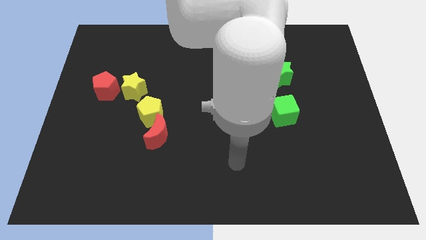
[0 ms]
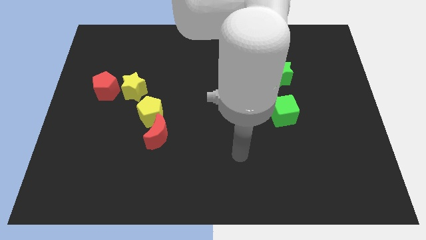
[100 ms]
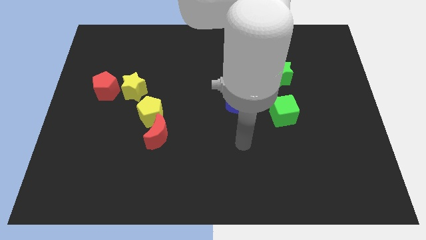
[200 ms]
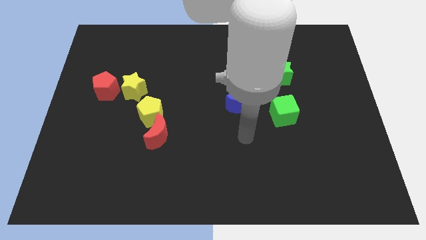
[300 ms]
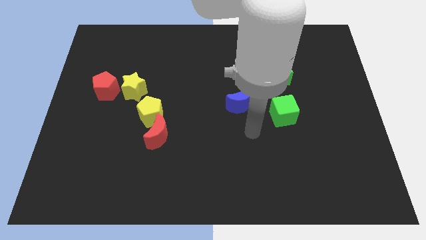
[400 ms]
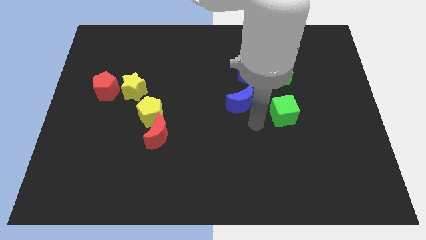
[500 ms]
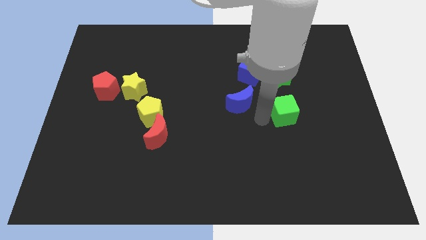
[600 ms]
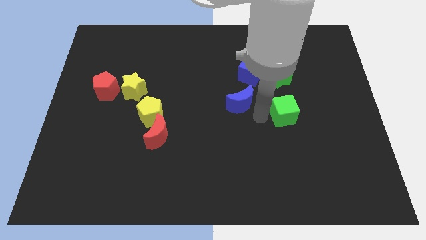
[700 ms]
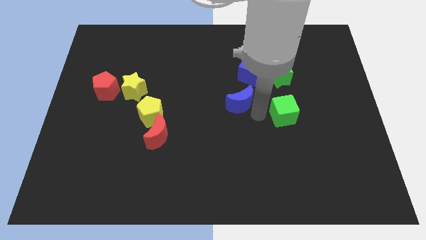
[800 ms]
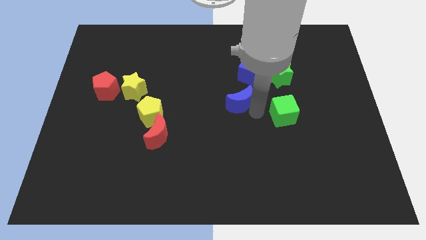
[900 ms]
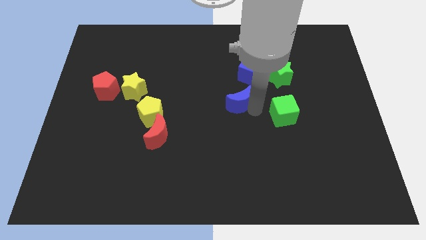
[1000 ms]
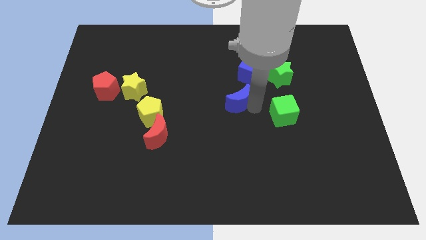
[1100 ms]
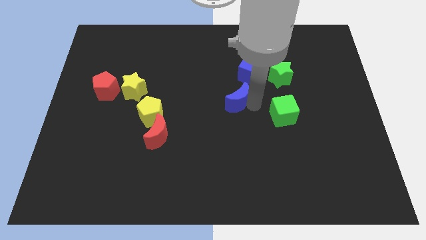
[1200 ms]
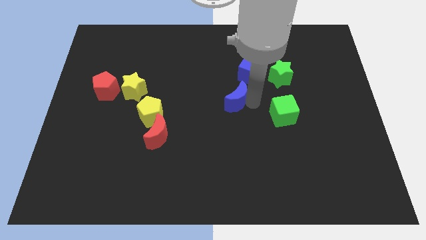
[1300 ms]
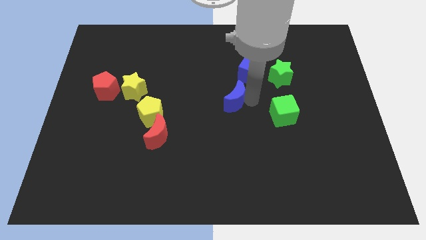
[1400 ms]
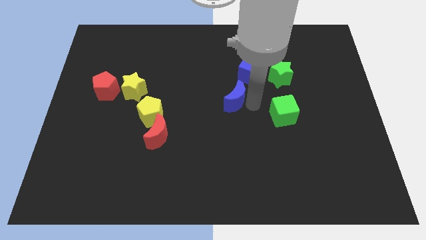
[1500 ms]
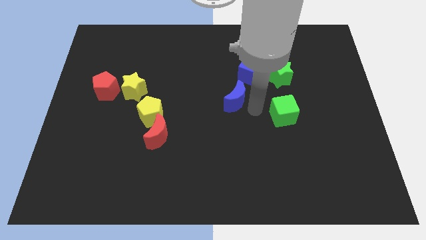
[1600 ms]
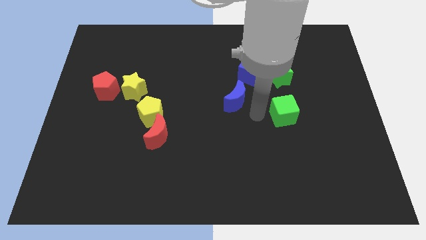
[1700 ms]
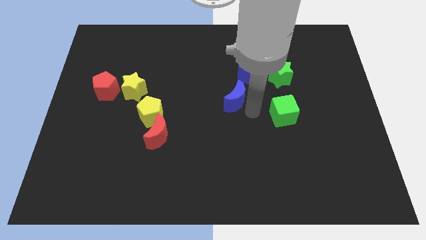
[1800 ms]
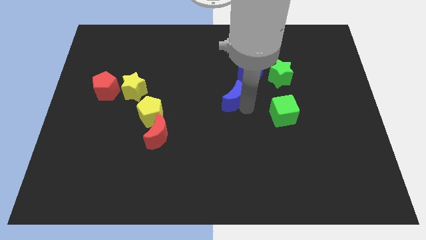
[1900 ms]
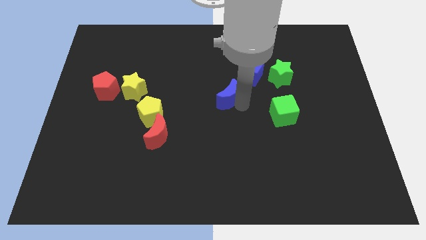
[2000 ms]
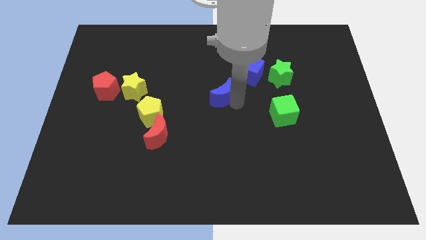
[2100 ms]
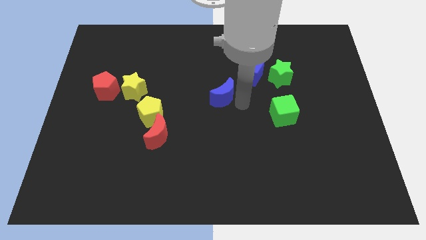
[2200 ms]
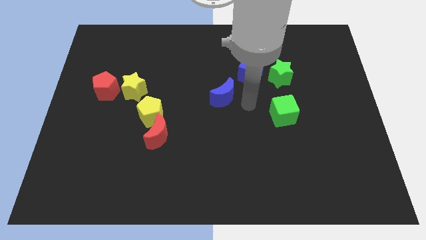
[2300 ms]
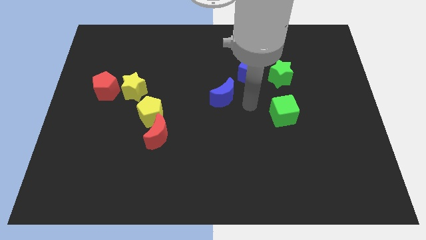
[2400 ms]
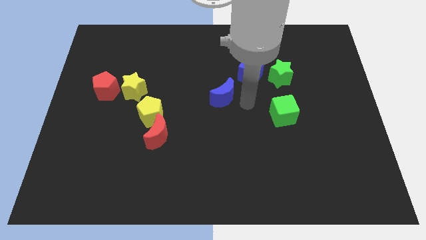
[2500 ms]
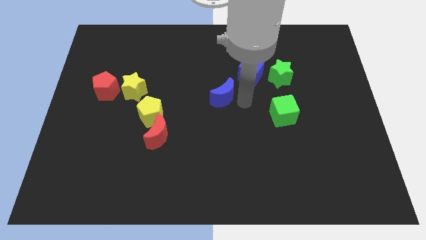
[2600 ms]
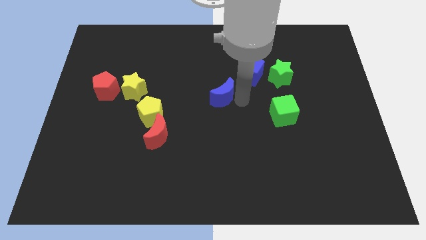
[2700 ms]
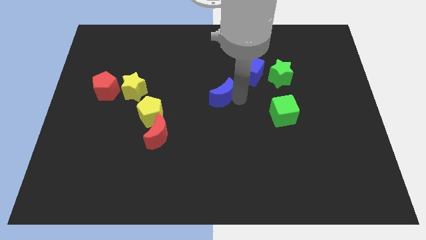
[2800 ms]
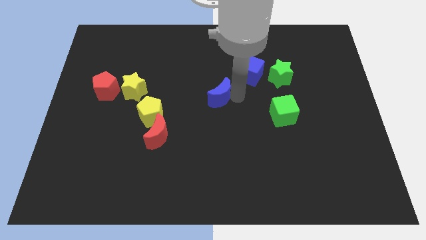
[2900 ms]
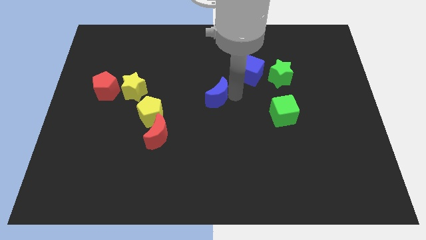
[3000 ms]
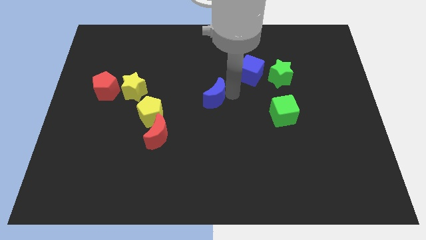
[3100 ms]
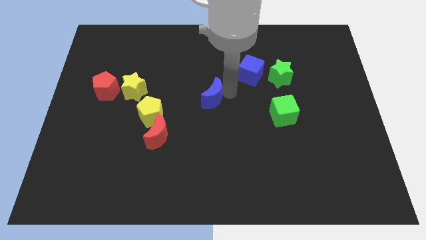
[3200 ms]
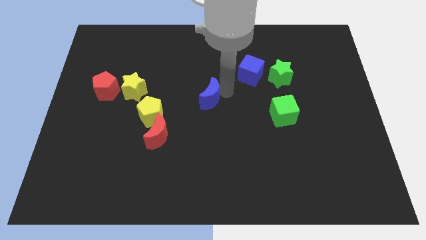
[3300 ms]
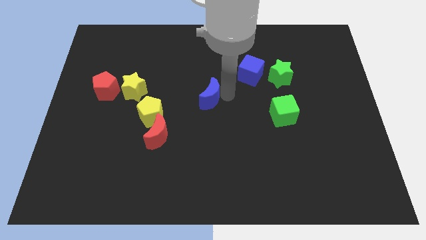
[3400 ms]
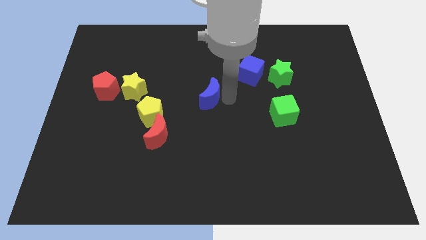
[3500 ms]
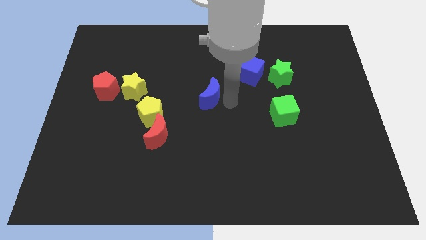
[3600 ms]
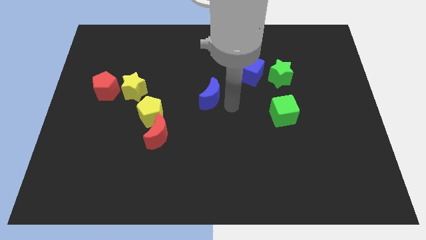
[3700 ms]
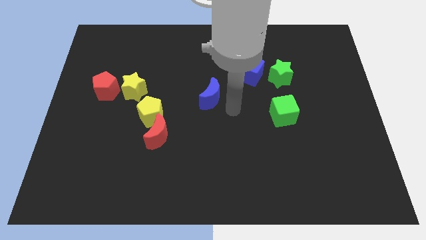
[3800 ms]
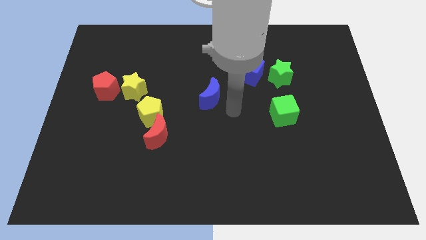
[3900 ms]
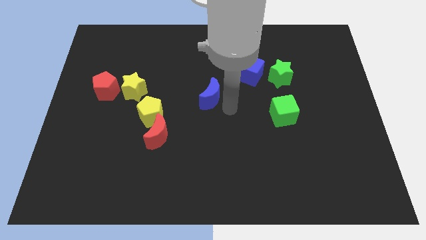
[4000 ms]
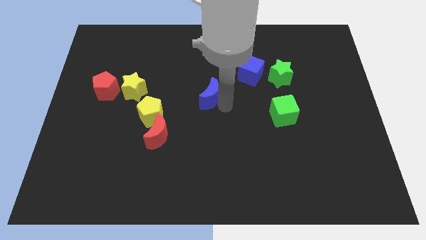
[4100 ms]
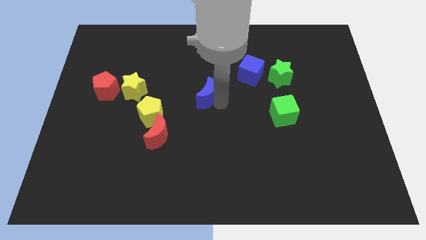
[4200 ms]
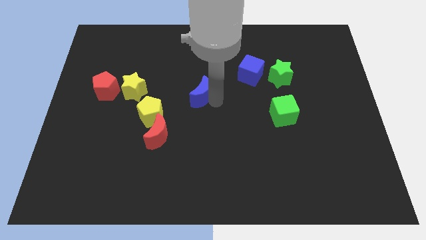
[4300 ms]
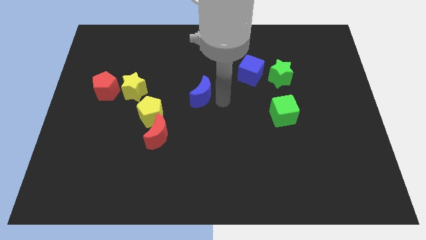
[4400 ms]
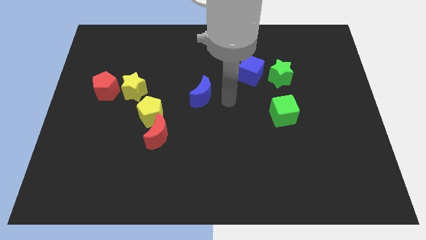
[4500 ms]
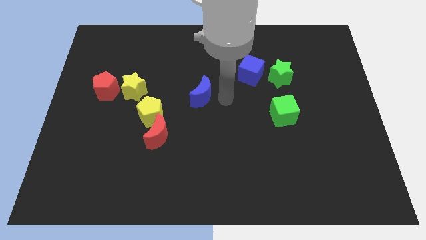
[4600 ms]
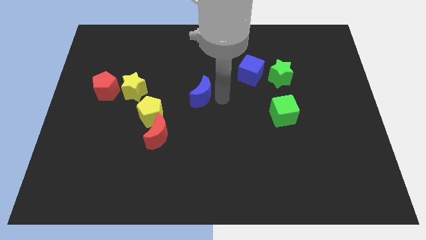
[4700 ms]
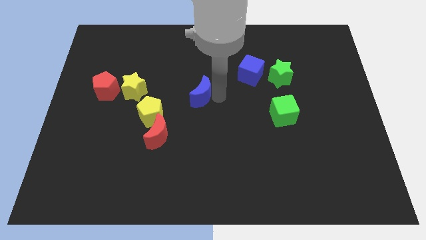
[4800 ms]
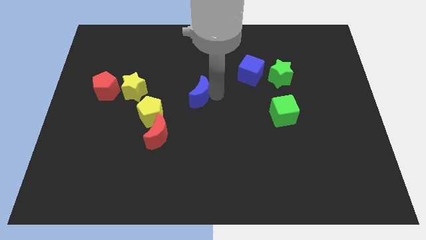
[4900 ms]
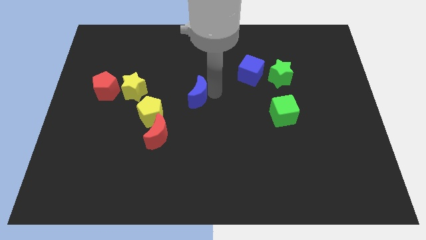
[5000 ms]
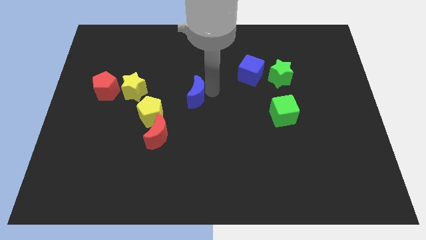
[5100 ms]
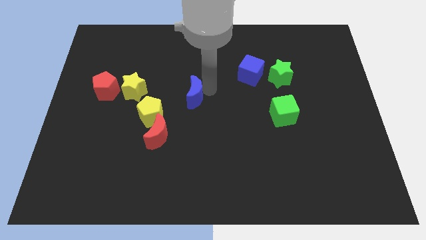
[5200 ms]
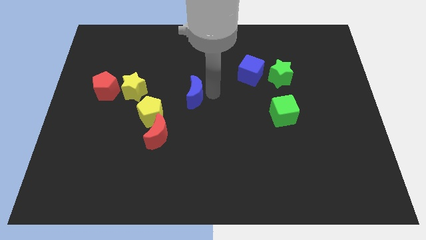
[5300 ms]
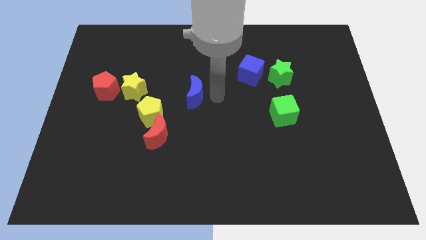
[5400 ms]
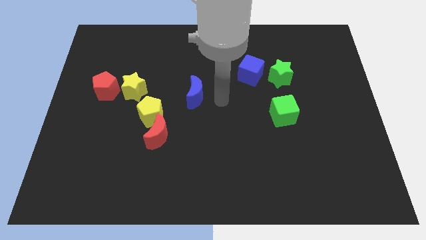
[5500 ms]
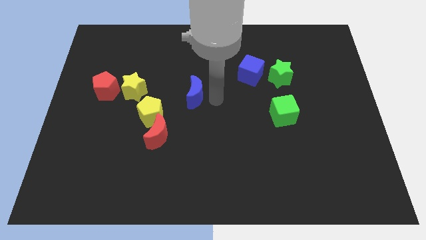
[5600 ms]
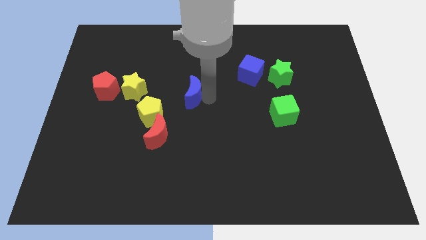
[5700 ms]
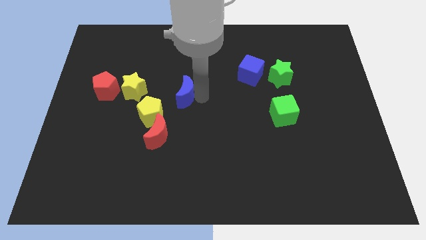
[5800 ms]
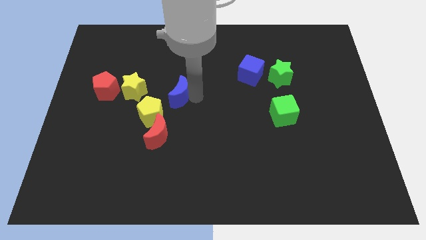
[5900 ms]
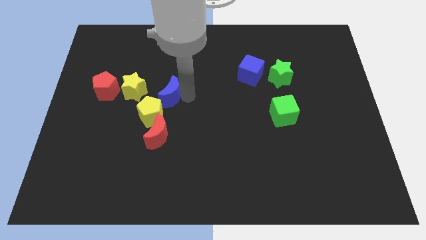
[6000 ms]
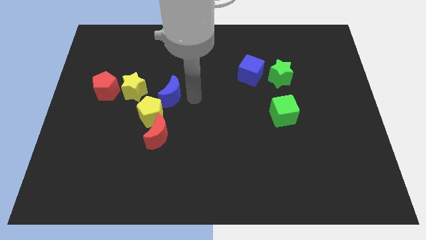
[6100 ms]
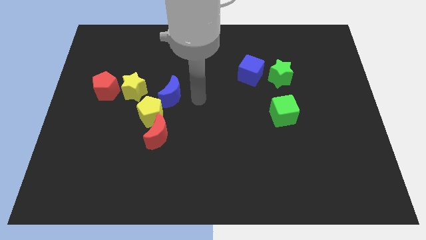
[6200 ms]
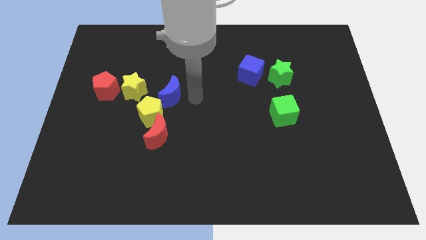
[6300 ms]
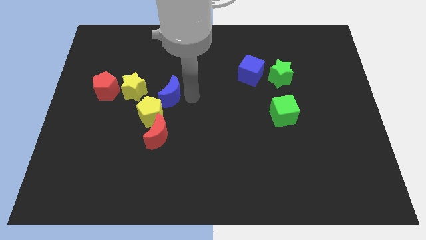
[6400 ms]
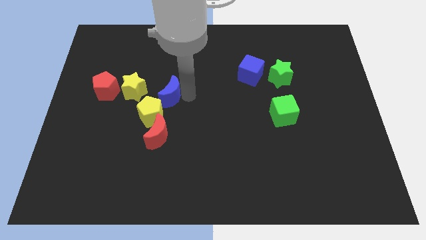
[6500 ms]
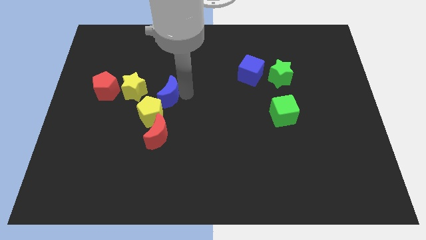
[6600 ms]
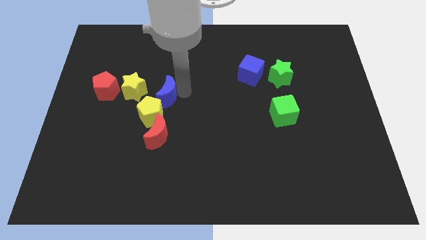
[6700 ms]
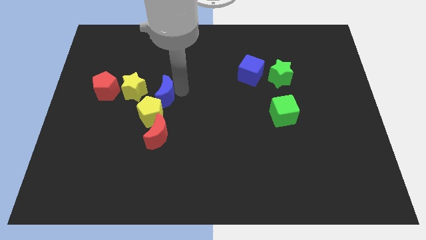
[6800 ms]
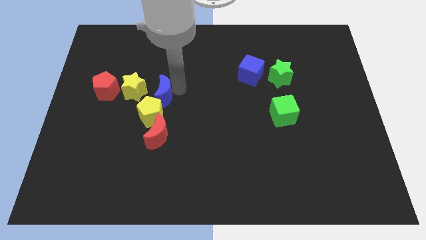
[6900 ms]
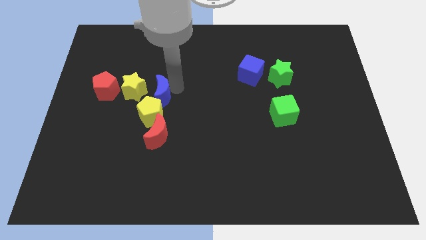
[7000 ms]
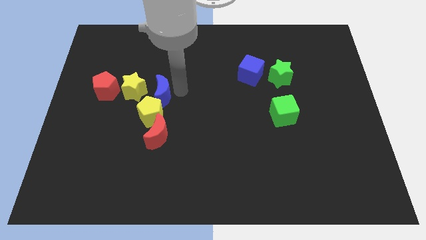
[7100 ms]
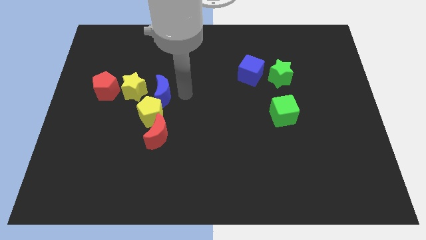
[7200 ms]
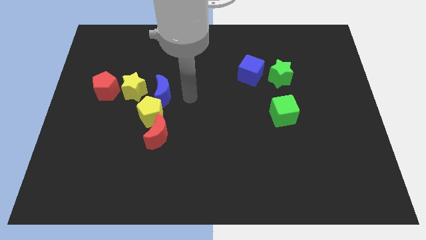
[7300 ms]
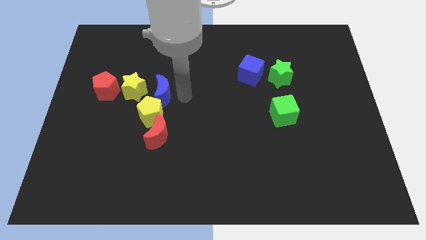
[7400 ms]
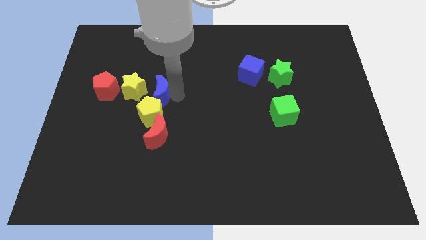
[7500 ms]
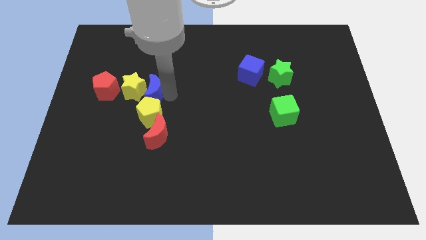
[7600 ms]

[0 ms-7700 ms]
move the blue moon to the yellow star

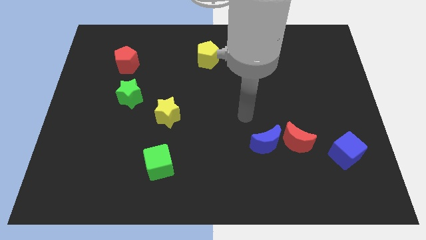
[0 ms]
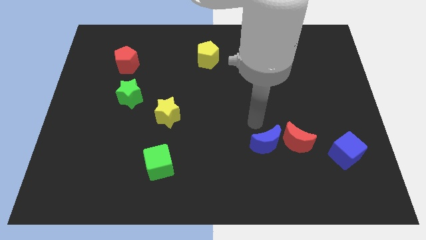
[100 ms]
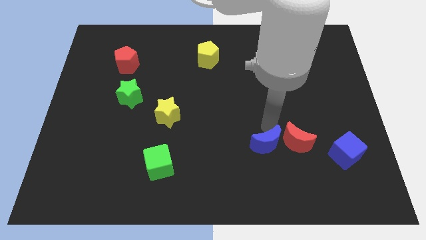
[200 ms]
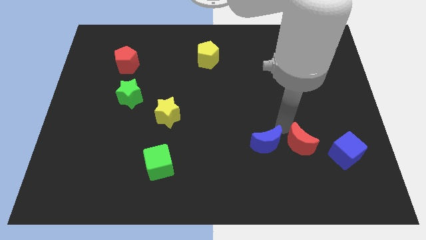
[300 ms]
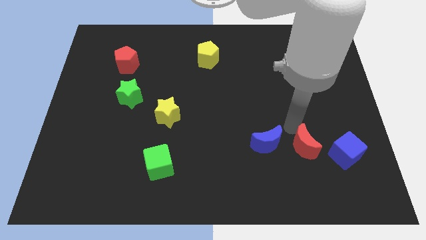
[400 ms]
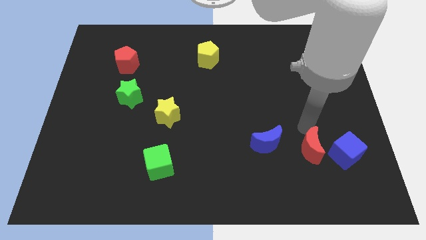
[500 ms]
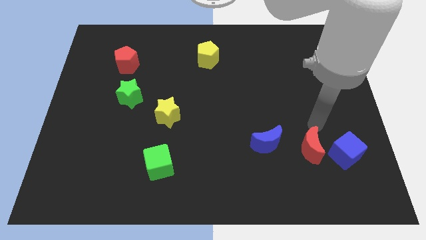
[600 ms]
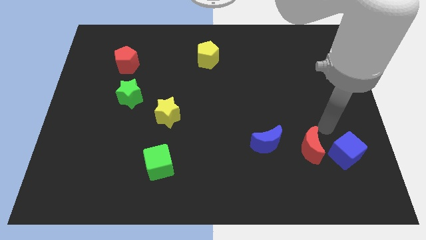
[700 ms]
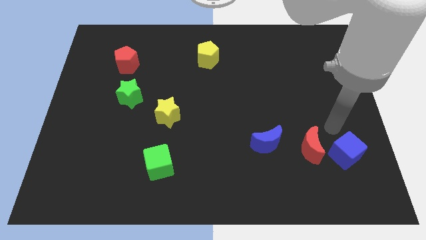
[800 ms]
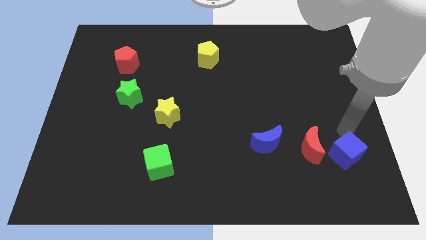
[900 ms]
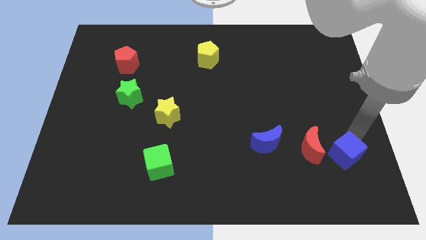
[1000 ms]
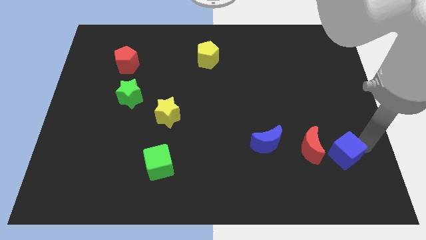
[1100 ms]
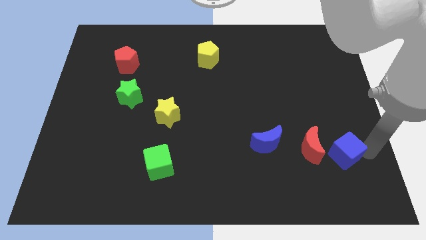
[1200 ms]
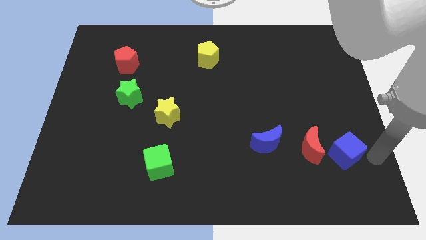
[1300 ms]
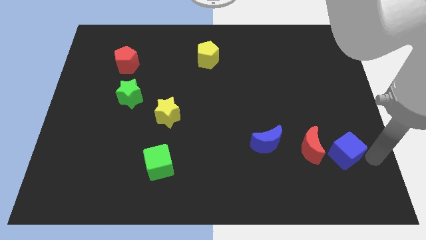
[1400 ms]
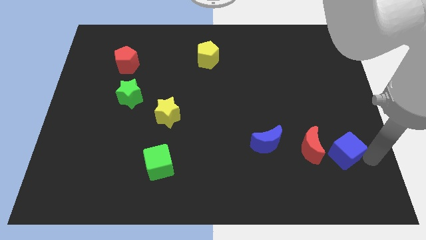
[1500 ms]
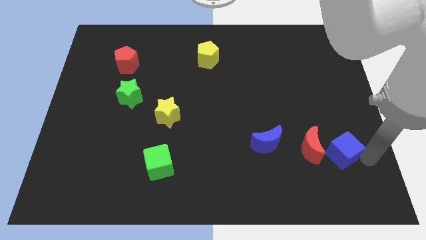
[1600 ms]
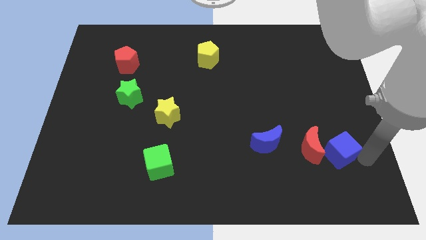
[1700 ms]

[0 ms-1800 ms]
push the blue cube towards the red moon
